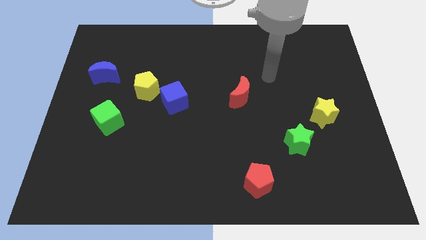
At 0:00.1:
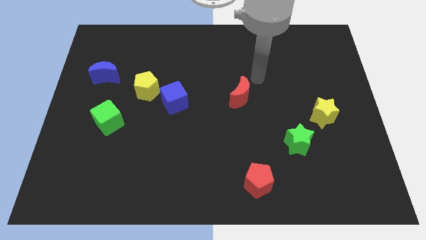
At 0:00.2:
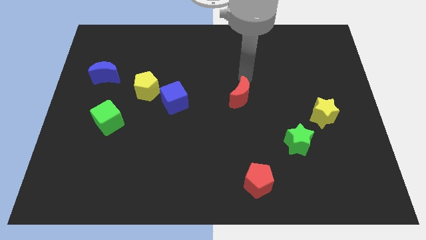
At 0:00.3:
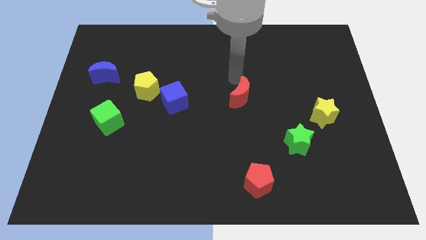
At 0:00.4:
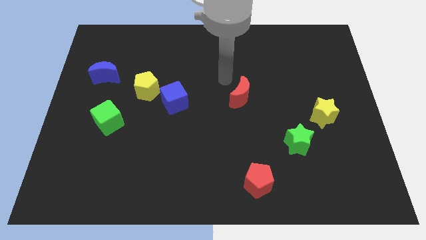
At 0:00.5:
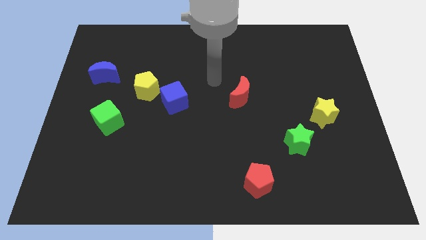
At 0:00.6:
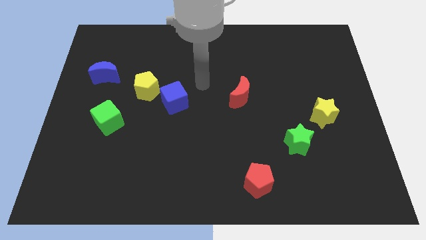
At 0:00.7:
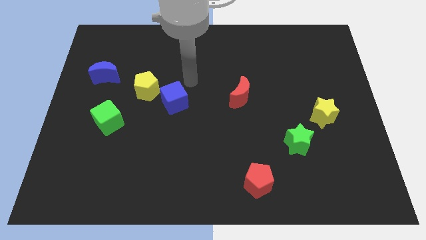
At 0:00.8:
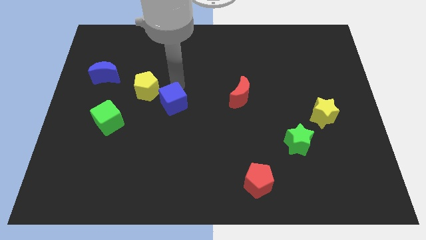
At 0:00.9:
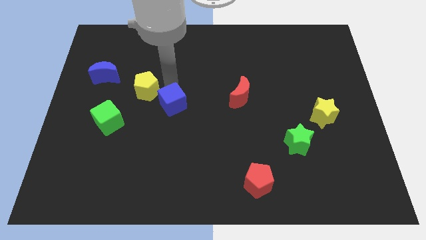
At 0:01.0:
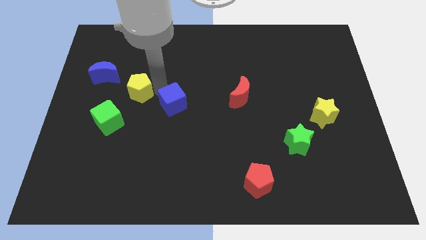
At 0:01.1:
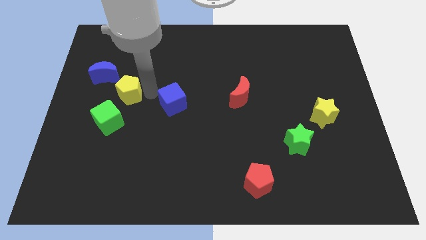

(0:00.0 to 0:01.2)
separate the blue cube from the yellow pentagon

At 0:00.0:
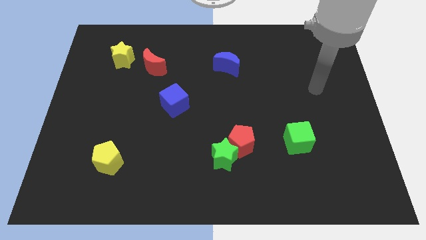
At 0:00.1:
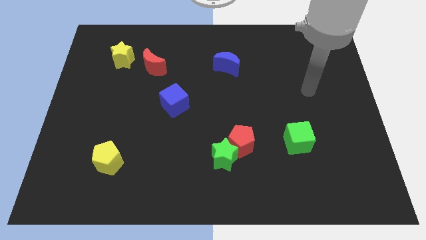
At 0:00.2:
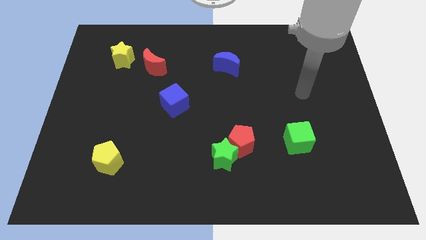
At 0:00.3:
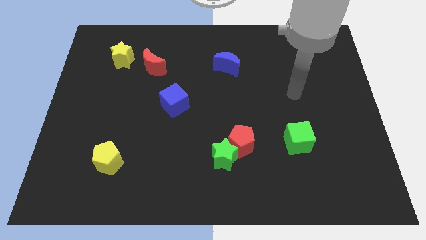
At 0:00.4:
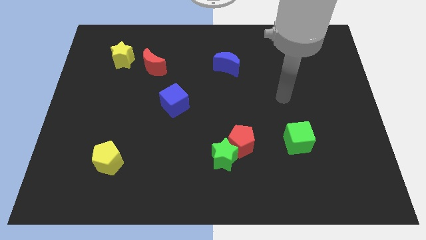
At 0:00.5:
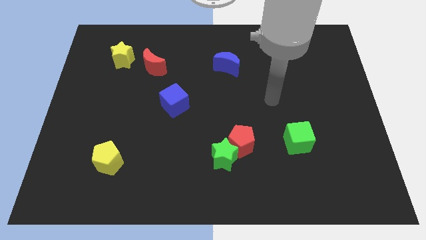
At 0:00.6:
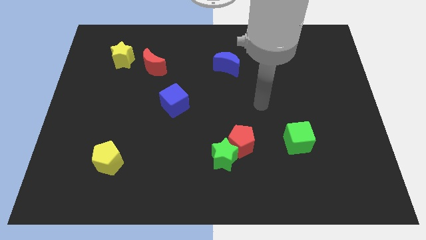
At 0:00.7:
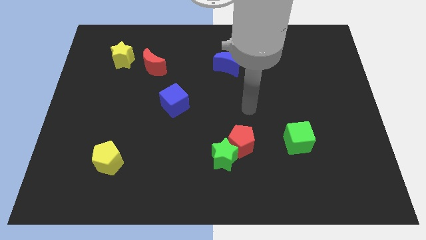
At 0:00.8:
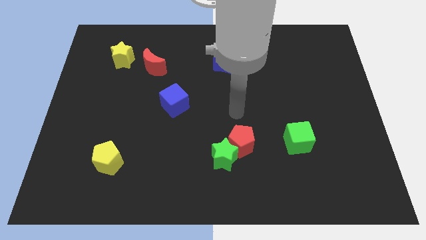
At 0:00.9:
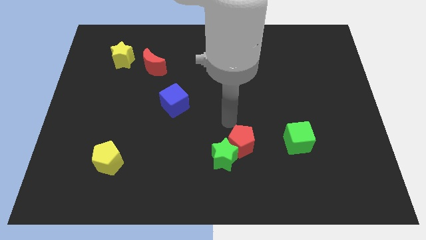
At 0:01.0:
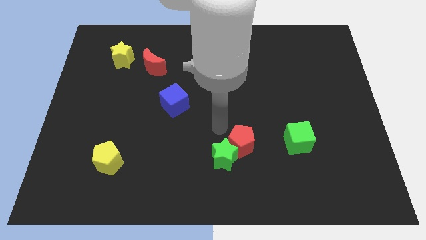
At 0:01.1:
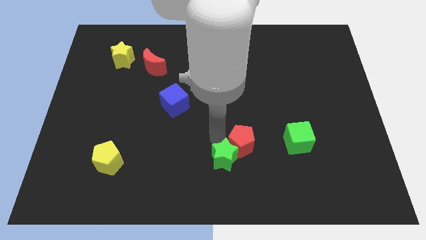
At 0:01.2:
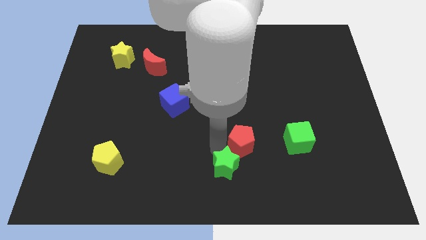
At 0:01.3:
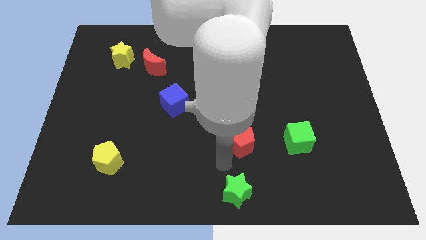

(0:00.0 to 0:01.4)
pull the red pentagon apart from the green star

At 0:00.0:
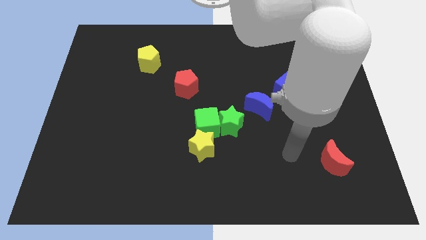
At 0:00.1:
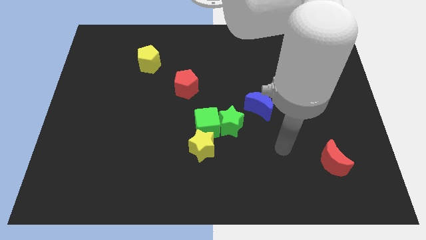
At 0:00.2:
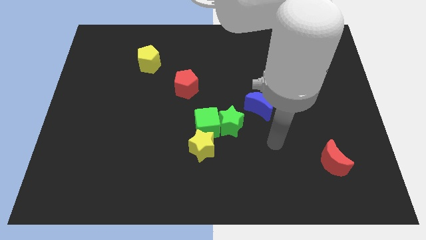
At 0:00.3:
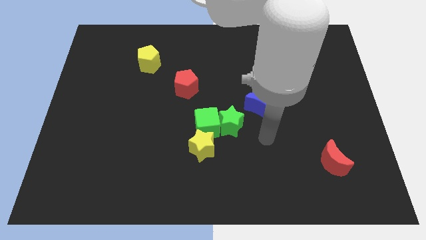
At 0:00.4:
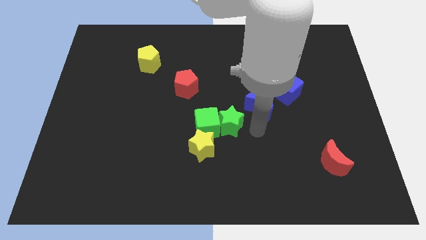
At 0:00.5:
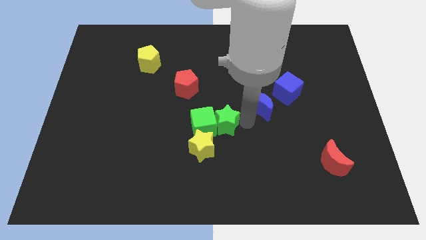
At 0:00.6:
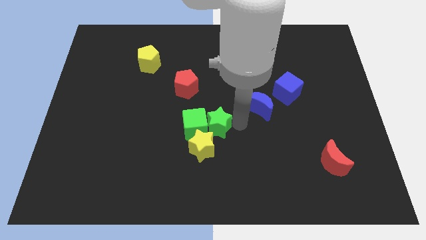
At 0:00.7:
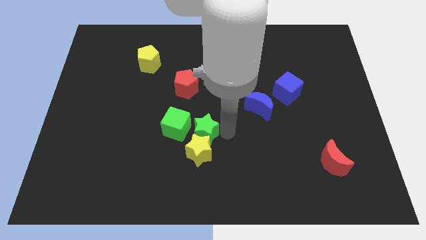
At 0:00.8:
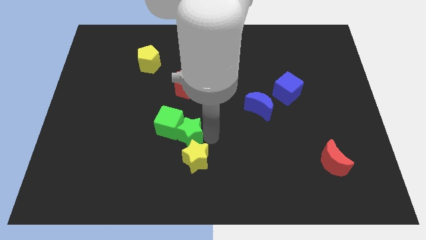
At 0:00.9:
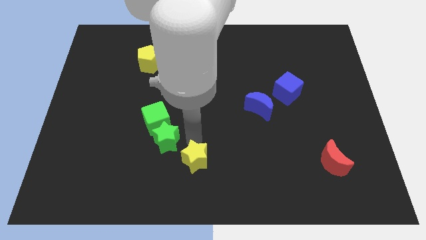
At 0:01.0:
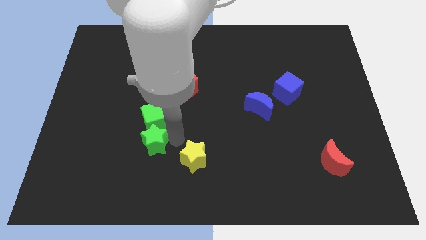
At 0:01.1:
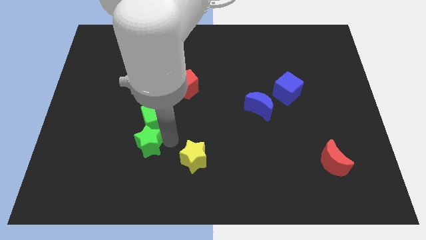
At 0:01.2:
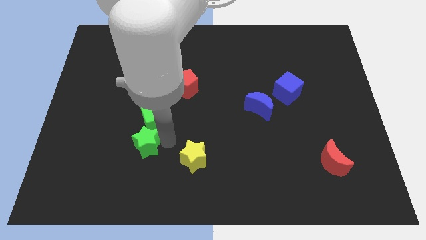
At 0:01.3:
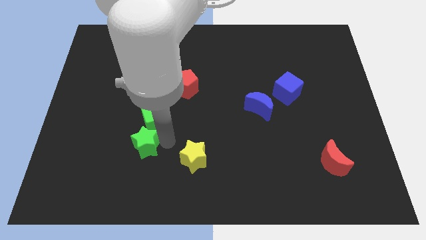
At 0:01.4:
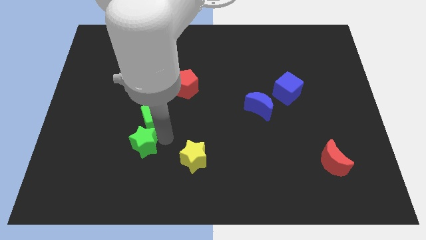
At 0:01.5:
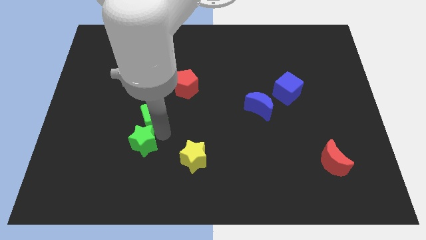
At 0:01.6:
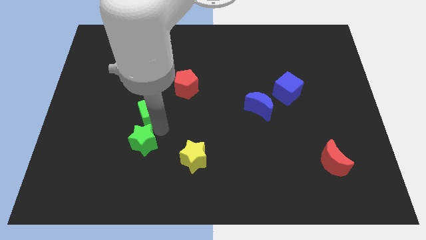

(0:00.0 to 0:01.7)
separate the green cube from the green star and yellow star

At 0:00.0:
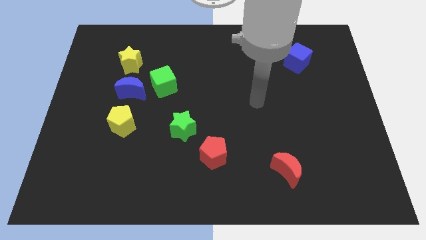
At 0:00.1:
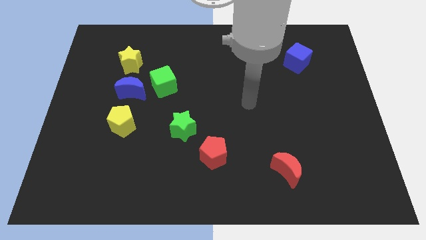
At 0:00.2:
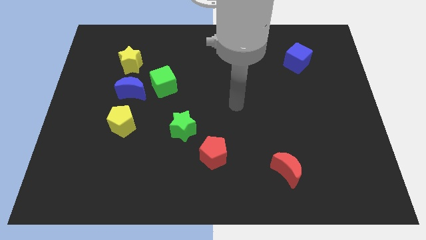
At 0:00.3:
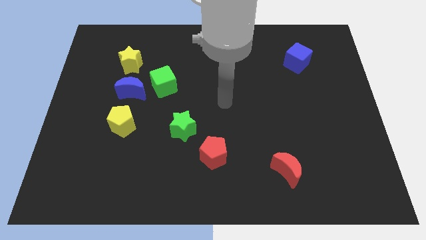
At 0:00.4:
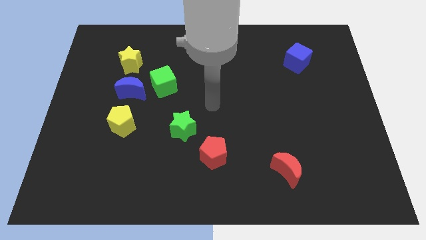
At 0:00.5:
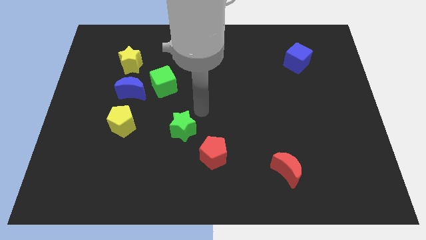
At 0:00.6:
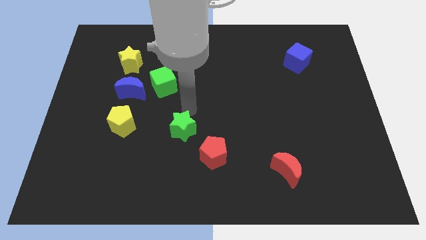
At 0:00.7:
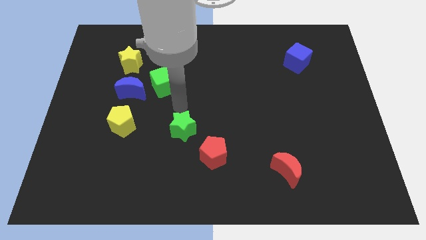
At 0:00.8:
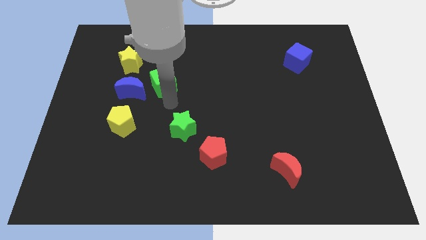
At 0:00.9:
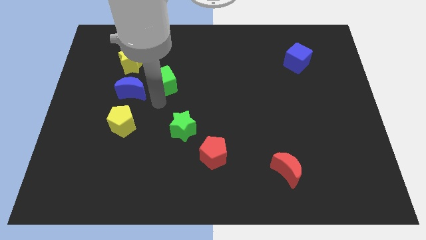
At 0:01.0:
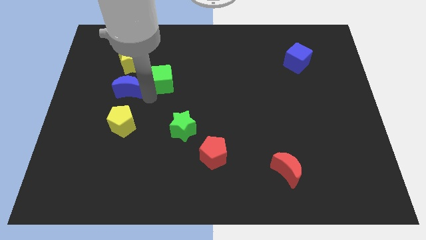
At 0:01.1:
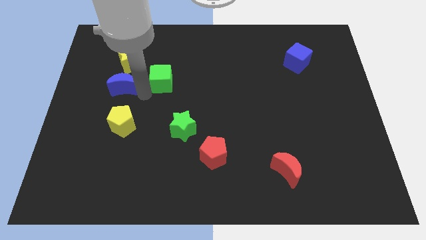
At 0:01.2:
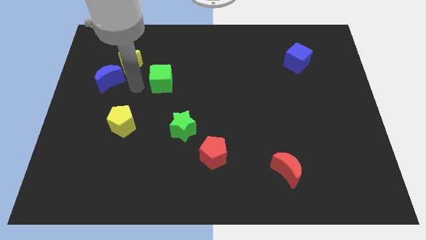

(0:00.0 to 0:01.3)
separate the green cube from the blue moon

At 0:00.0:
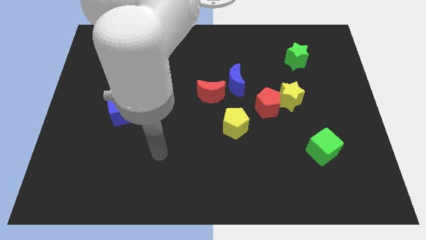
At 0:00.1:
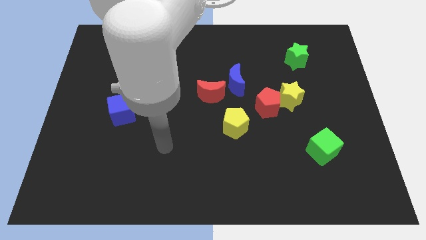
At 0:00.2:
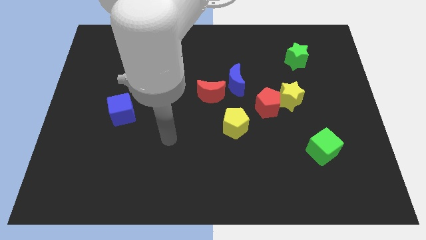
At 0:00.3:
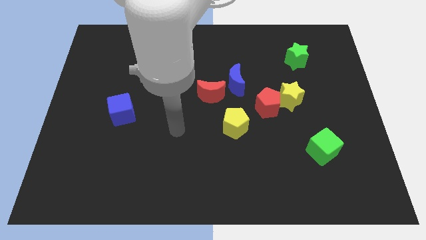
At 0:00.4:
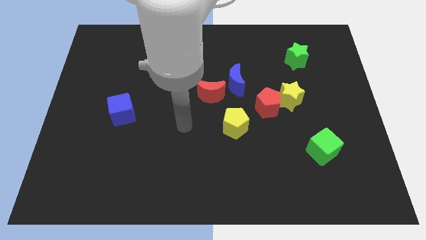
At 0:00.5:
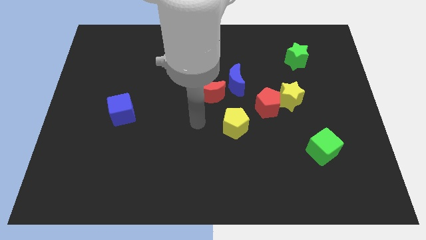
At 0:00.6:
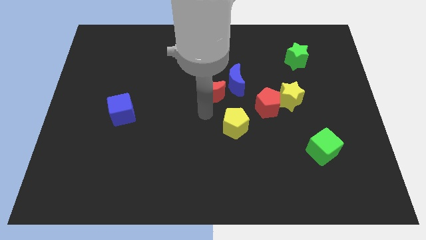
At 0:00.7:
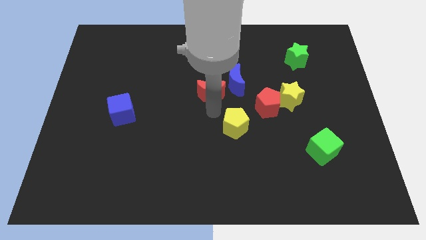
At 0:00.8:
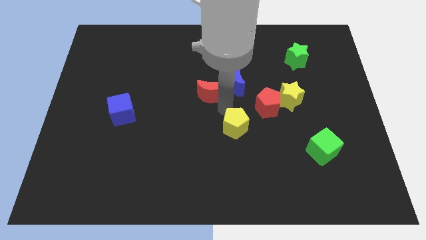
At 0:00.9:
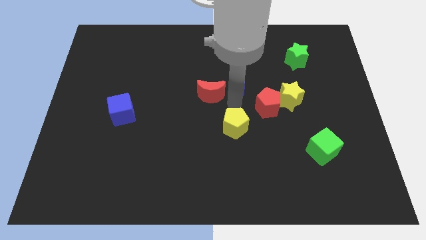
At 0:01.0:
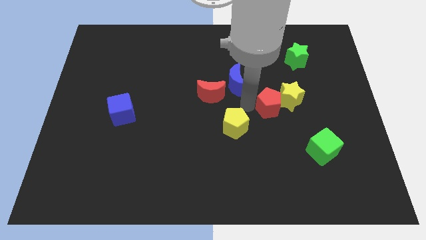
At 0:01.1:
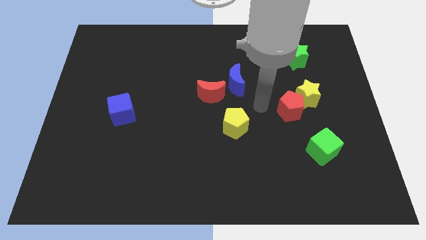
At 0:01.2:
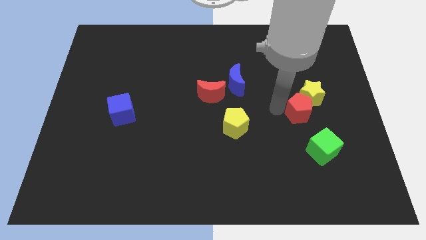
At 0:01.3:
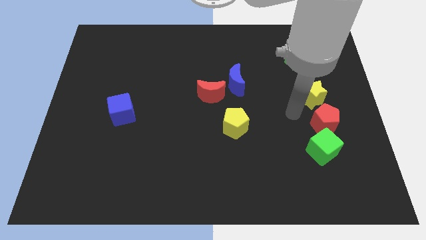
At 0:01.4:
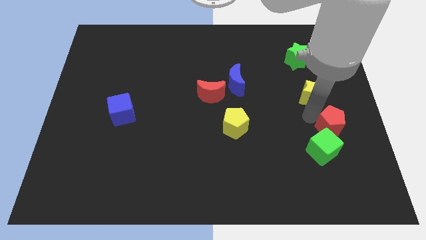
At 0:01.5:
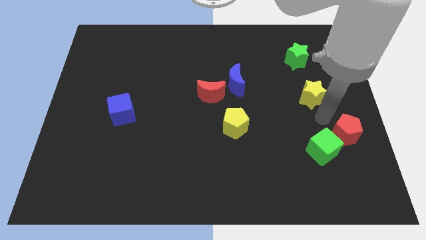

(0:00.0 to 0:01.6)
move the yellow star away from the red pentagon

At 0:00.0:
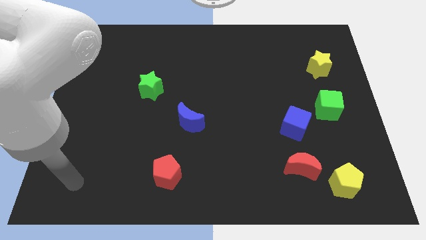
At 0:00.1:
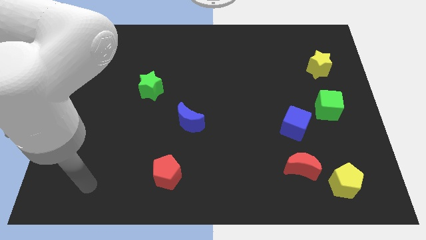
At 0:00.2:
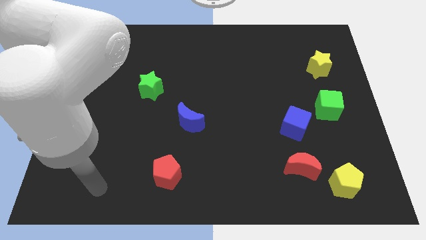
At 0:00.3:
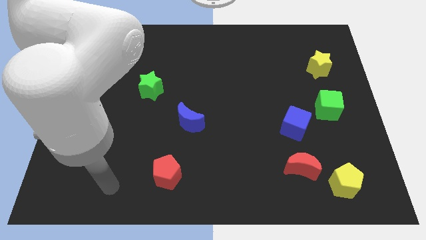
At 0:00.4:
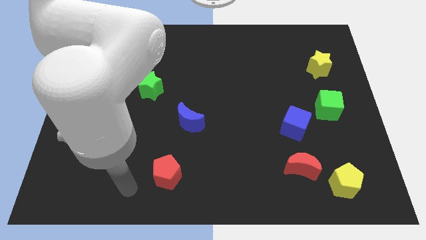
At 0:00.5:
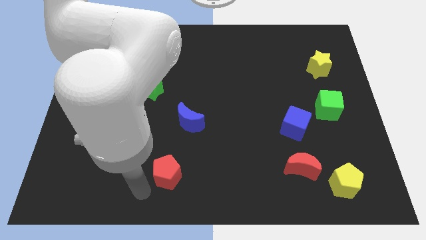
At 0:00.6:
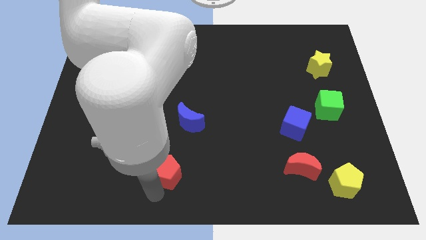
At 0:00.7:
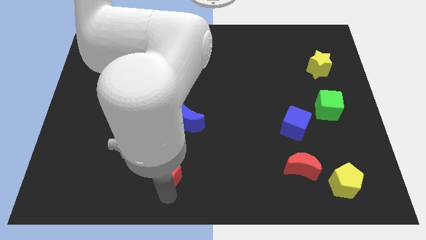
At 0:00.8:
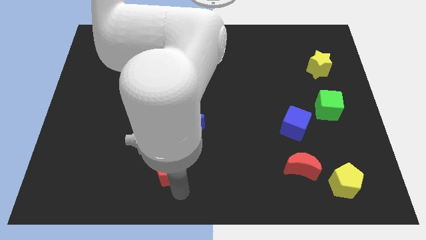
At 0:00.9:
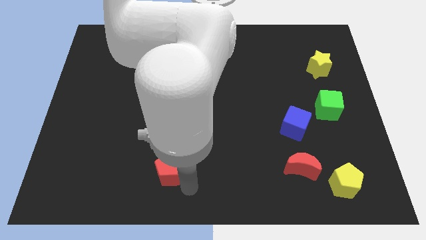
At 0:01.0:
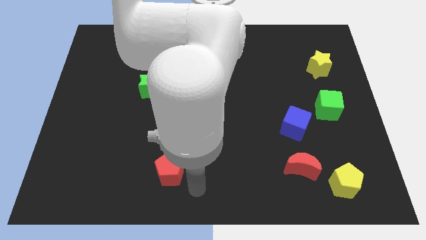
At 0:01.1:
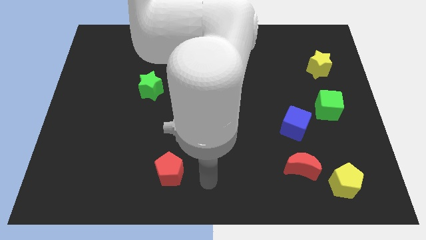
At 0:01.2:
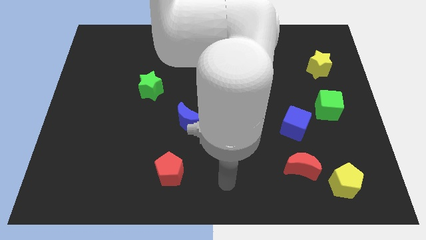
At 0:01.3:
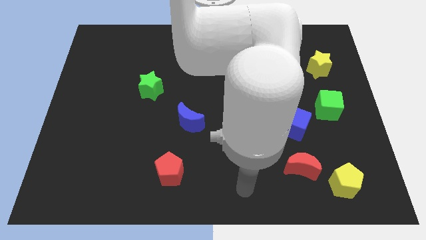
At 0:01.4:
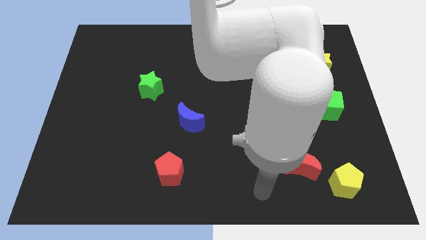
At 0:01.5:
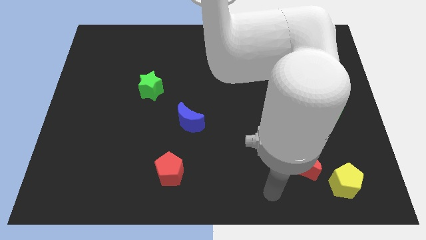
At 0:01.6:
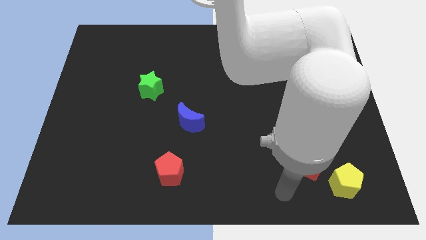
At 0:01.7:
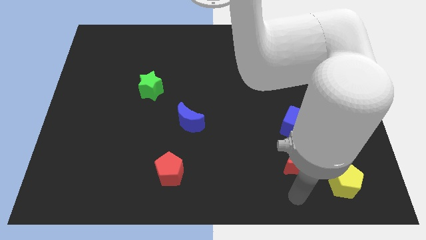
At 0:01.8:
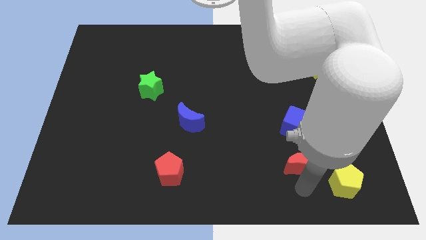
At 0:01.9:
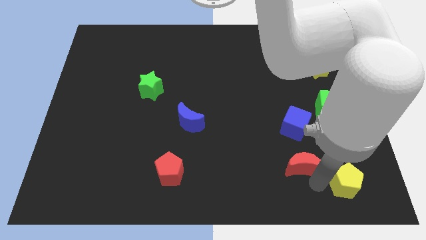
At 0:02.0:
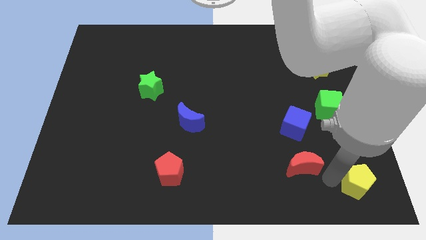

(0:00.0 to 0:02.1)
separate the red moon from the yellow pentagon
